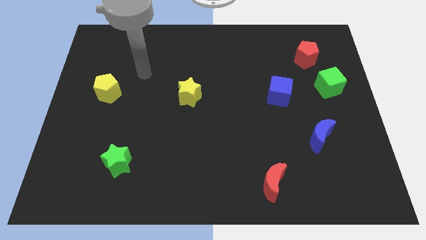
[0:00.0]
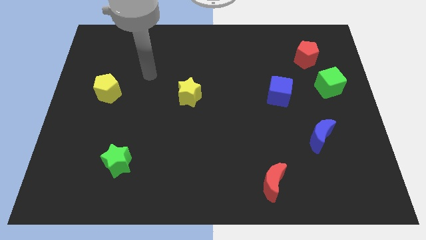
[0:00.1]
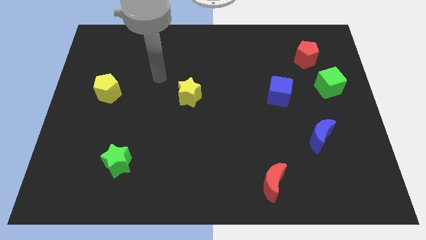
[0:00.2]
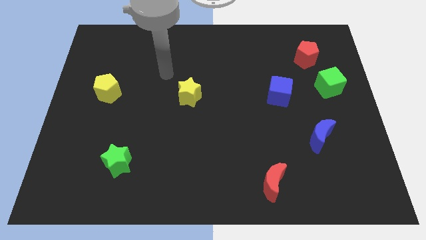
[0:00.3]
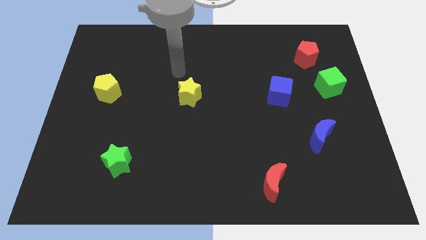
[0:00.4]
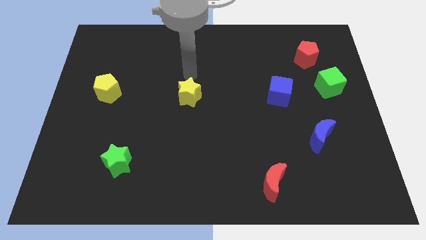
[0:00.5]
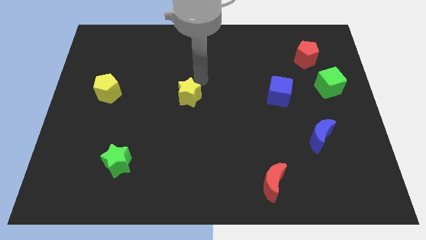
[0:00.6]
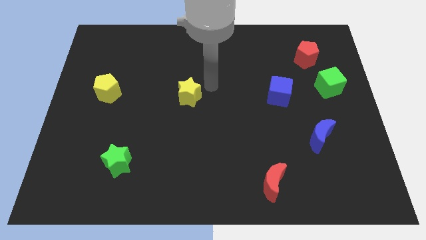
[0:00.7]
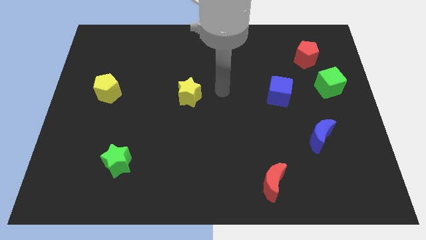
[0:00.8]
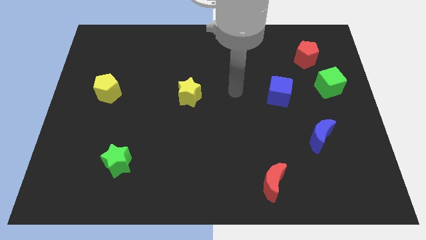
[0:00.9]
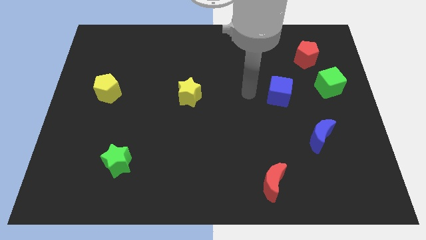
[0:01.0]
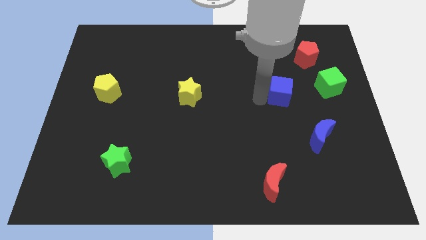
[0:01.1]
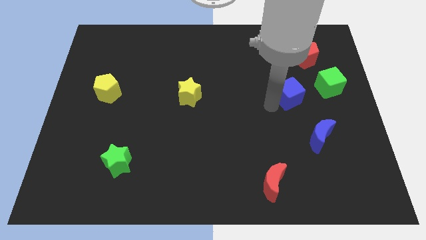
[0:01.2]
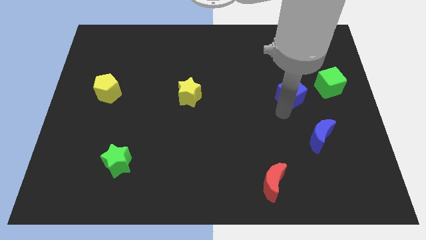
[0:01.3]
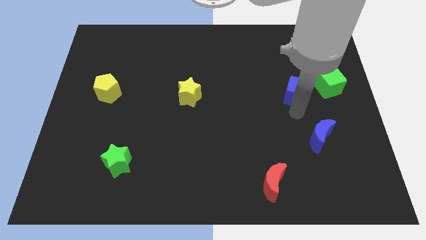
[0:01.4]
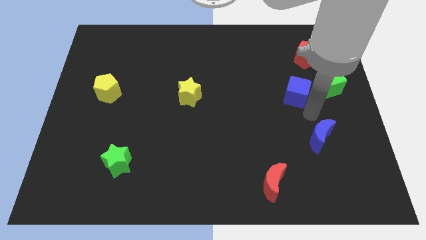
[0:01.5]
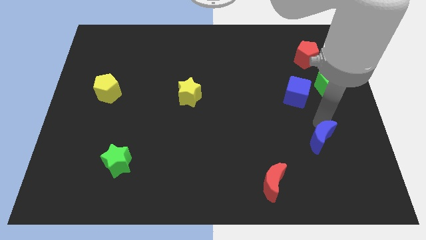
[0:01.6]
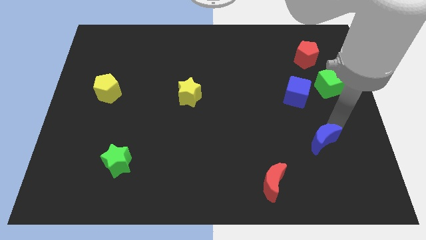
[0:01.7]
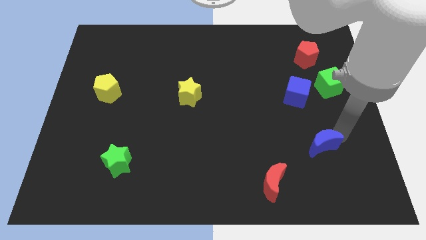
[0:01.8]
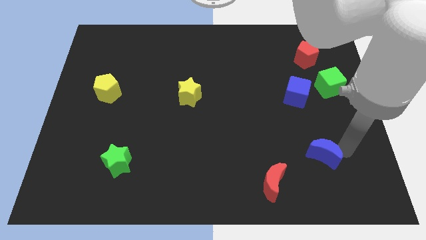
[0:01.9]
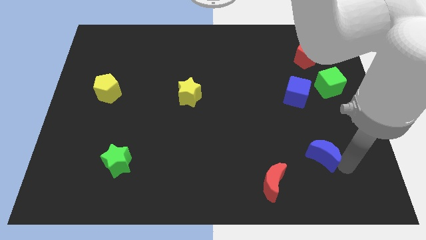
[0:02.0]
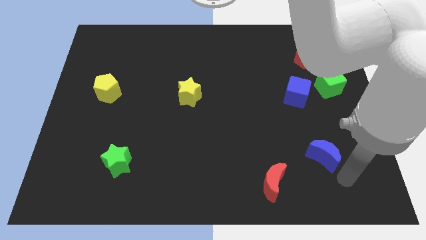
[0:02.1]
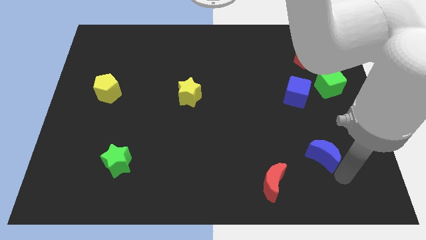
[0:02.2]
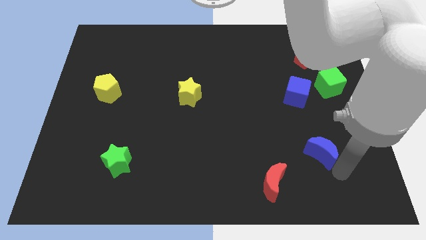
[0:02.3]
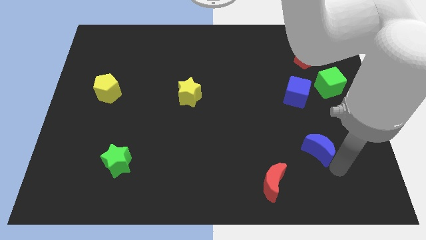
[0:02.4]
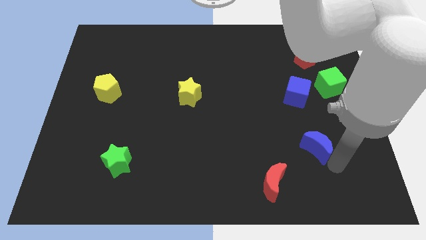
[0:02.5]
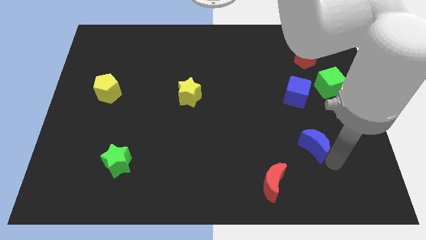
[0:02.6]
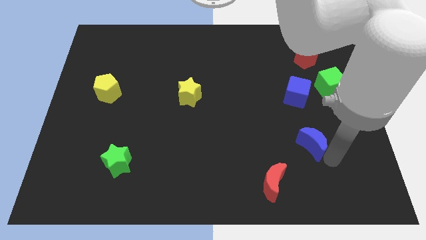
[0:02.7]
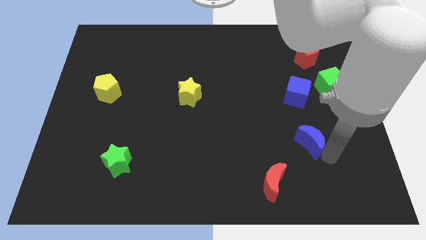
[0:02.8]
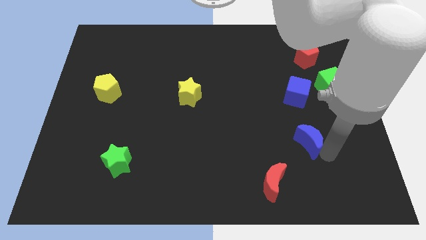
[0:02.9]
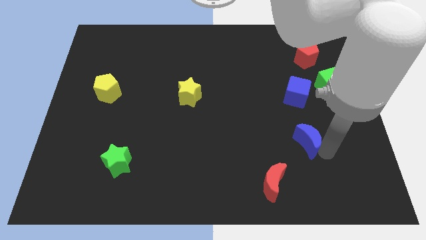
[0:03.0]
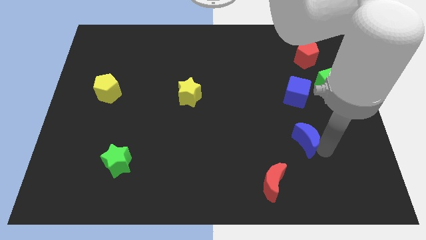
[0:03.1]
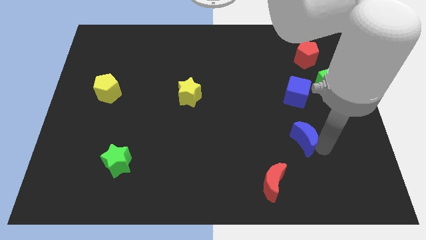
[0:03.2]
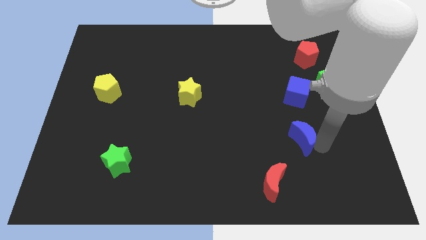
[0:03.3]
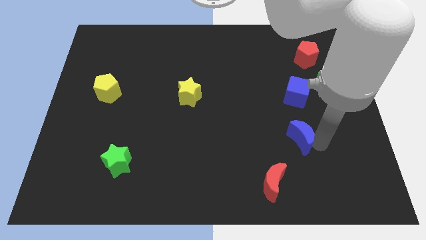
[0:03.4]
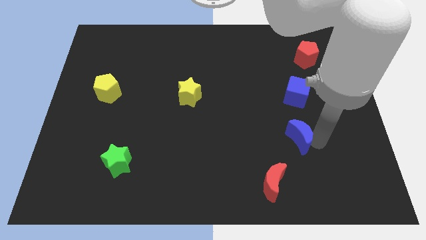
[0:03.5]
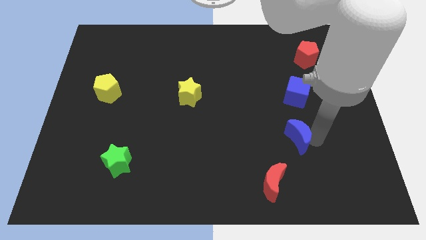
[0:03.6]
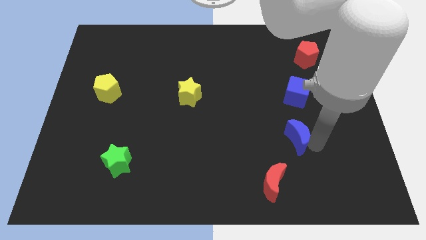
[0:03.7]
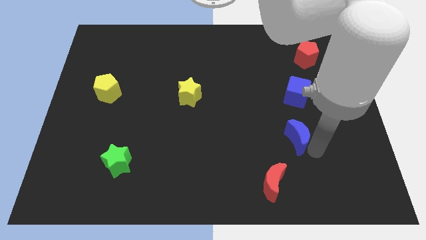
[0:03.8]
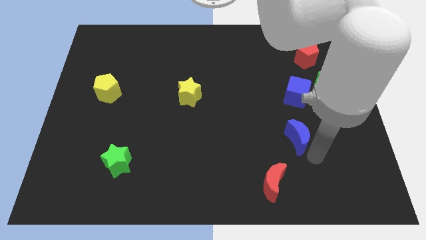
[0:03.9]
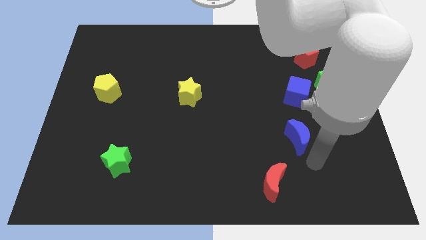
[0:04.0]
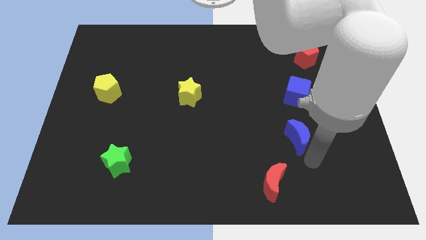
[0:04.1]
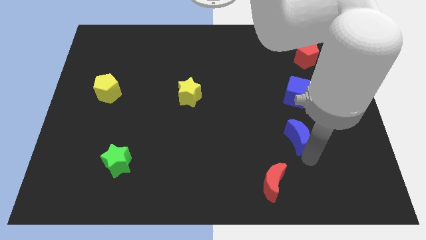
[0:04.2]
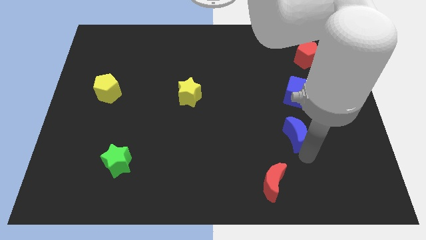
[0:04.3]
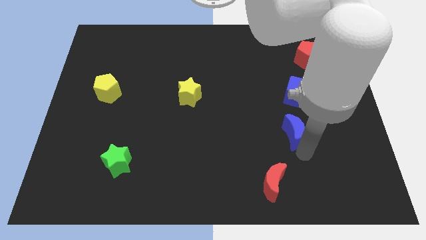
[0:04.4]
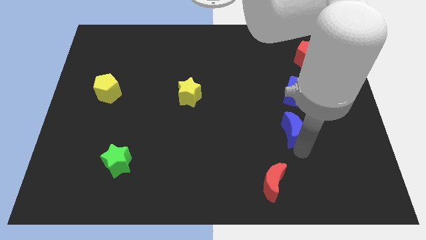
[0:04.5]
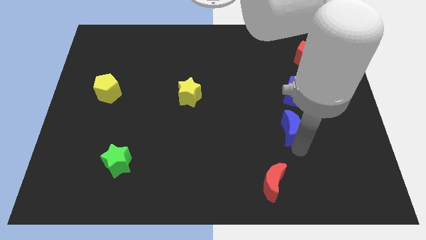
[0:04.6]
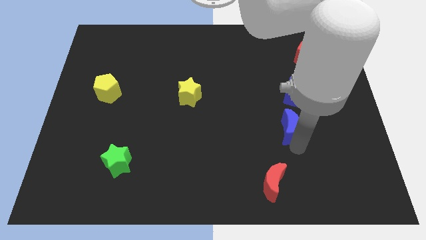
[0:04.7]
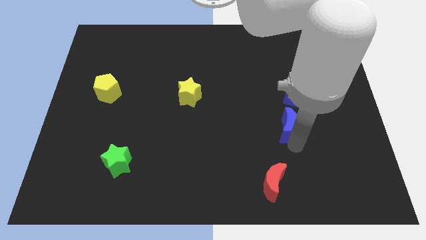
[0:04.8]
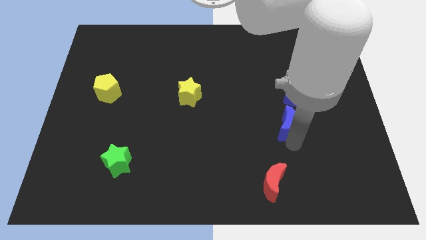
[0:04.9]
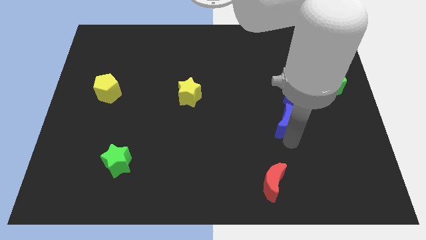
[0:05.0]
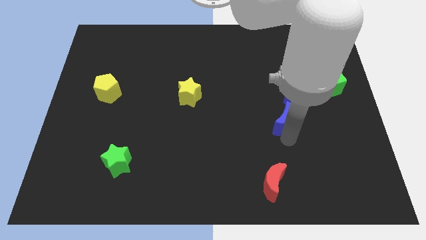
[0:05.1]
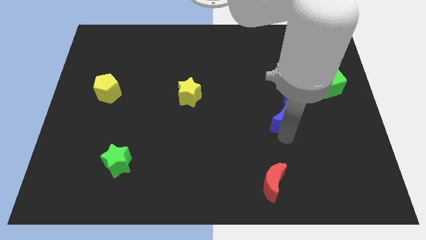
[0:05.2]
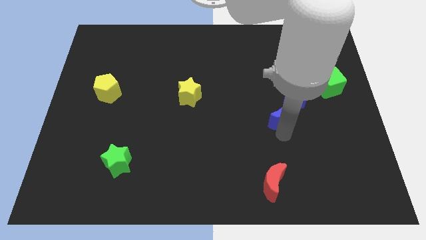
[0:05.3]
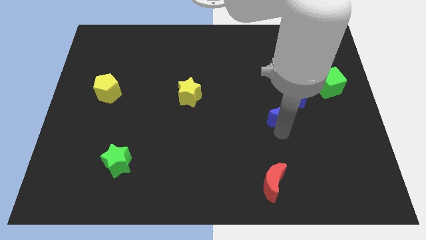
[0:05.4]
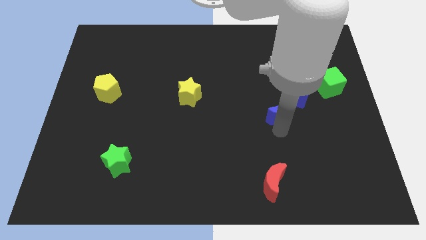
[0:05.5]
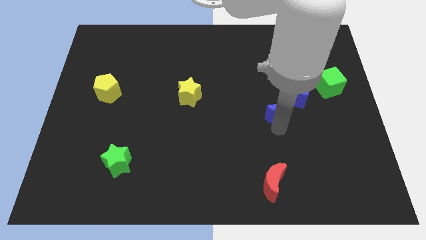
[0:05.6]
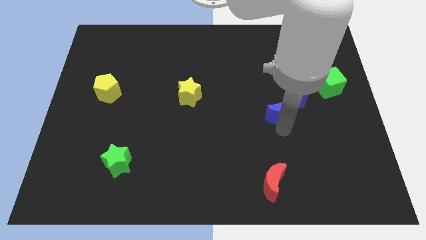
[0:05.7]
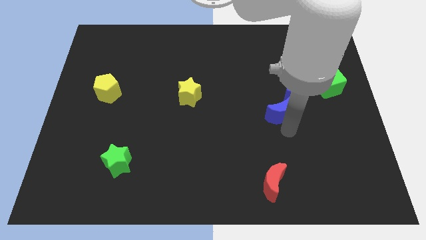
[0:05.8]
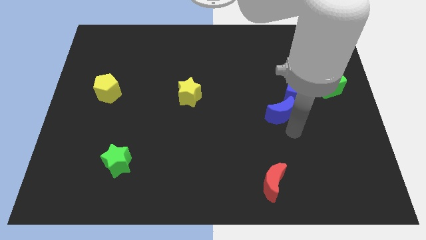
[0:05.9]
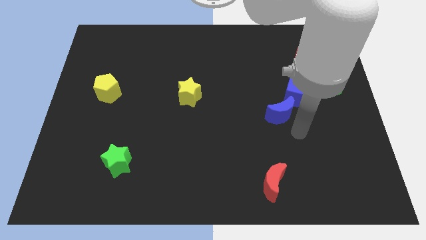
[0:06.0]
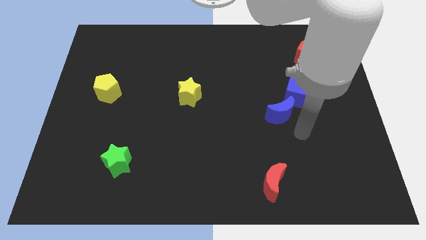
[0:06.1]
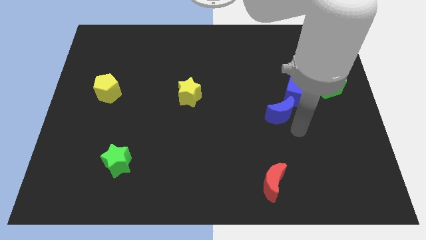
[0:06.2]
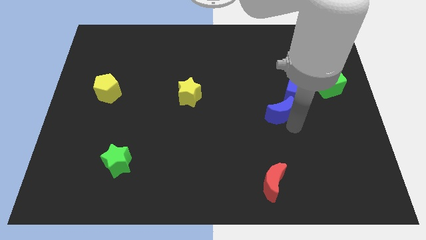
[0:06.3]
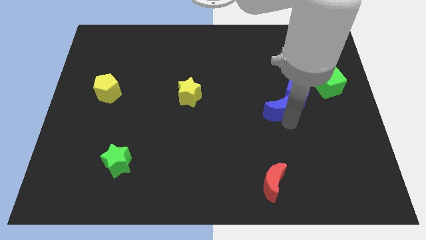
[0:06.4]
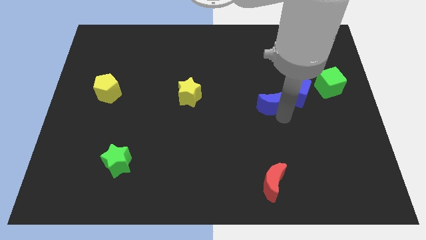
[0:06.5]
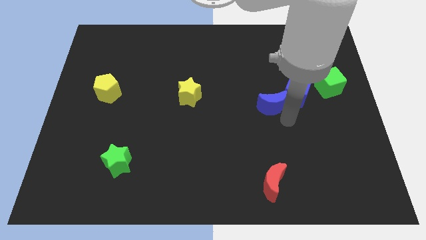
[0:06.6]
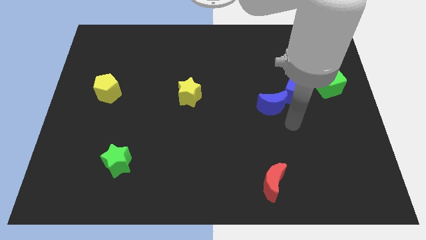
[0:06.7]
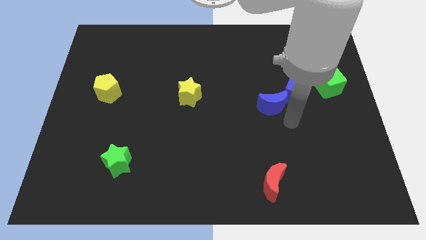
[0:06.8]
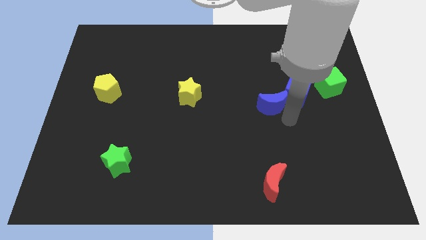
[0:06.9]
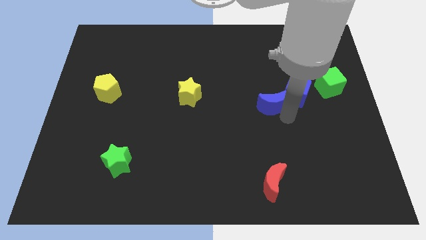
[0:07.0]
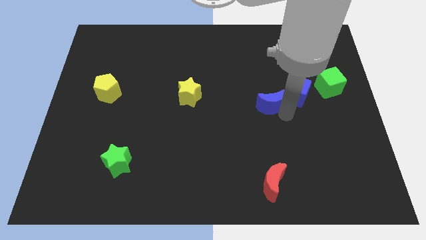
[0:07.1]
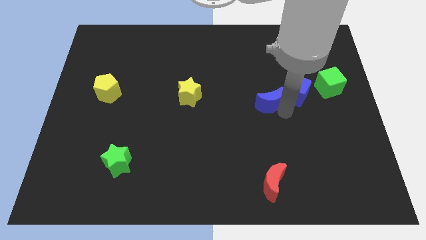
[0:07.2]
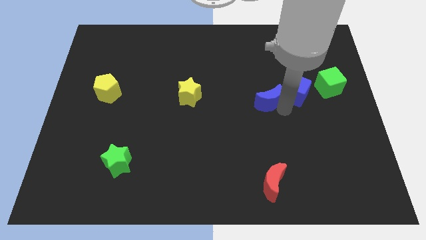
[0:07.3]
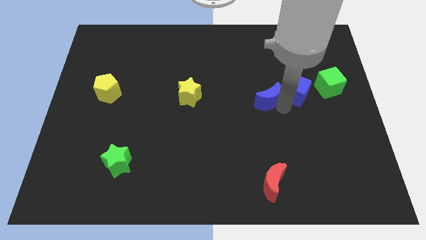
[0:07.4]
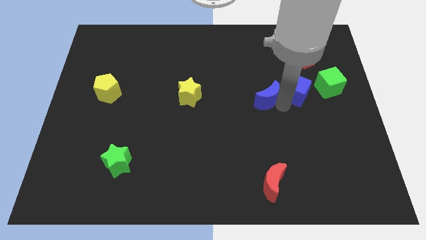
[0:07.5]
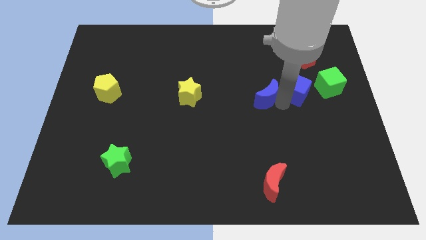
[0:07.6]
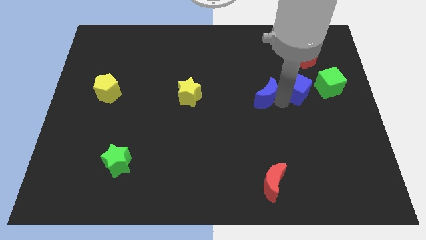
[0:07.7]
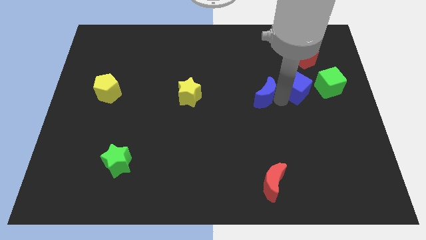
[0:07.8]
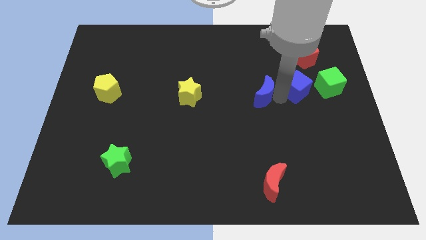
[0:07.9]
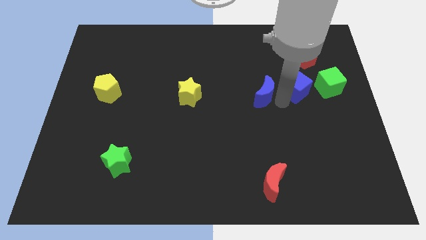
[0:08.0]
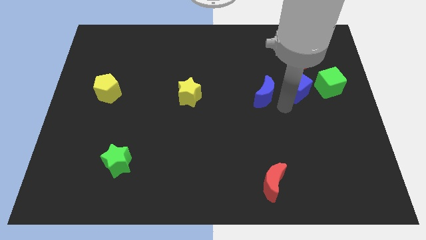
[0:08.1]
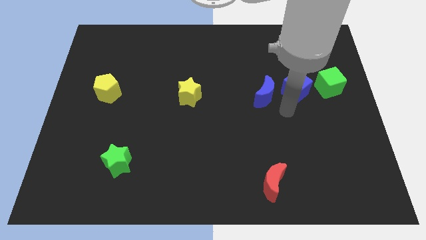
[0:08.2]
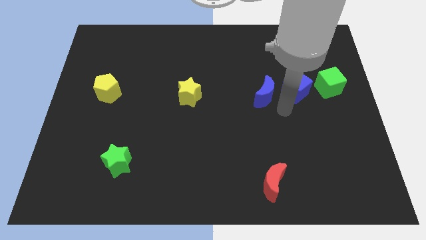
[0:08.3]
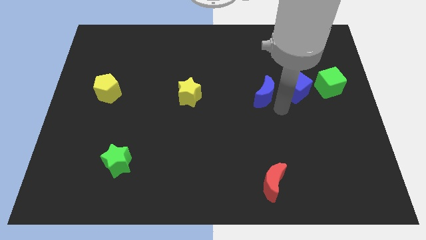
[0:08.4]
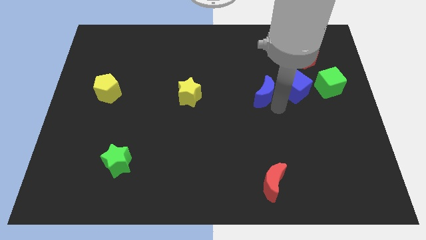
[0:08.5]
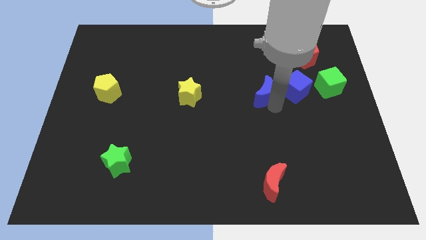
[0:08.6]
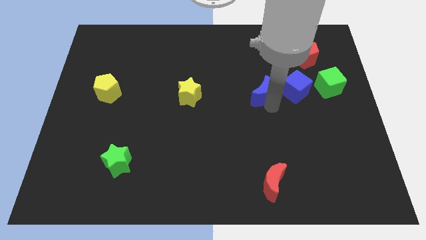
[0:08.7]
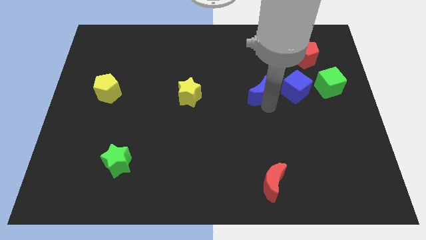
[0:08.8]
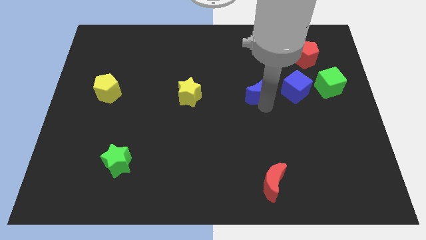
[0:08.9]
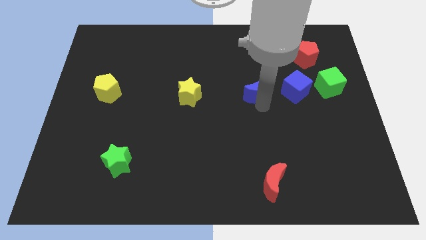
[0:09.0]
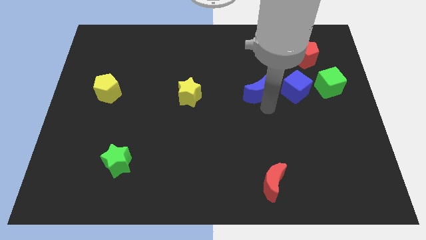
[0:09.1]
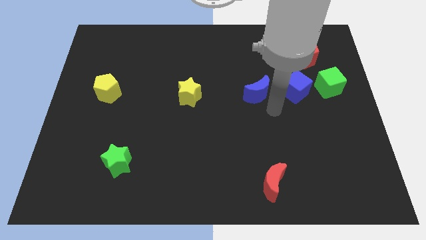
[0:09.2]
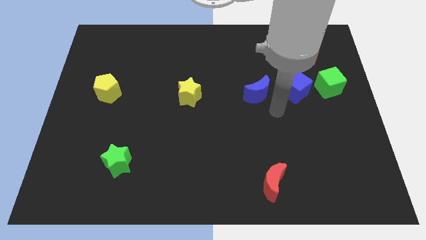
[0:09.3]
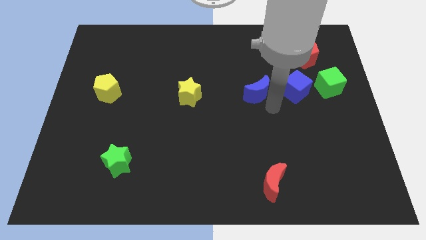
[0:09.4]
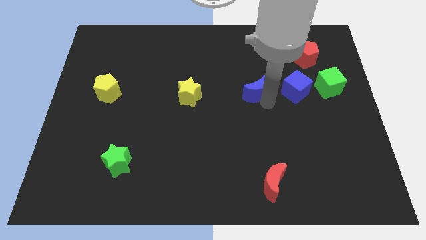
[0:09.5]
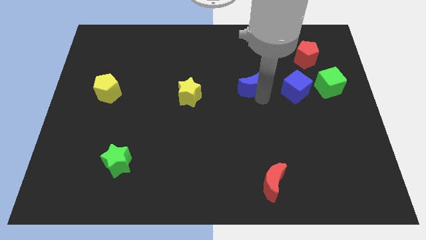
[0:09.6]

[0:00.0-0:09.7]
slide the blue moon diagonally upwards and to the left
